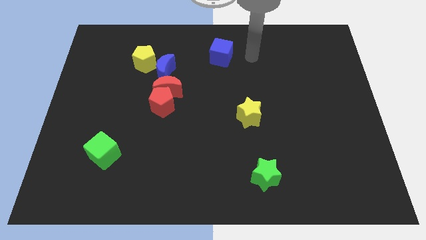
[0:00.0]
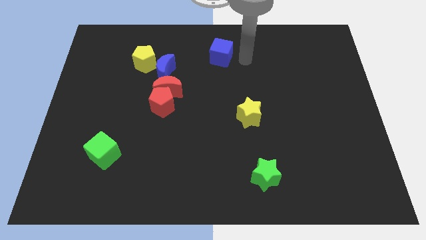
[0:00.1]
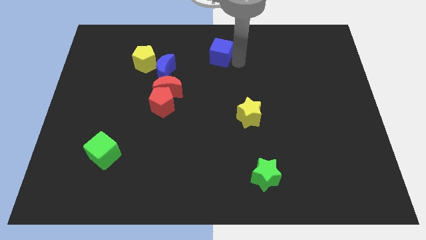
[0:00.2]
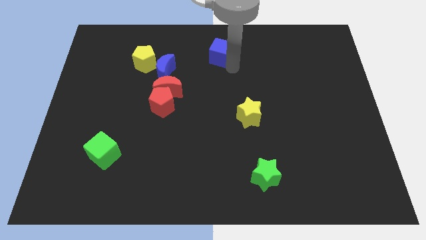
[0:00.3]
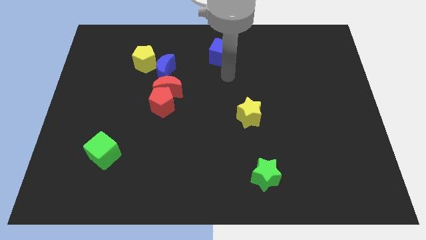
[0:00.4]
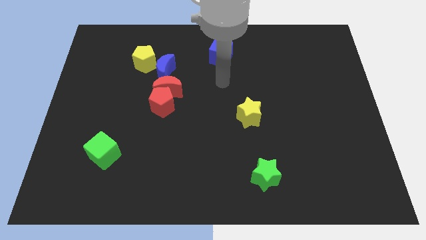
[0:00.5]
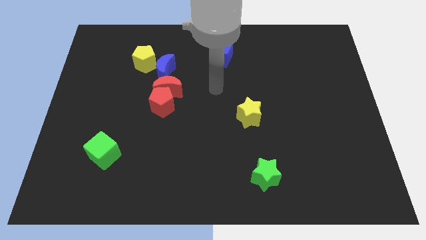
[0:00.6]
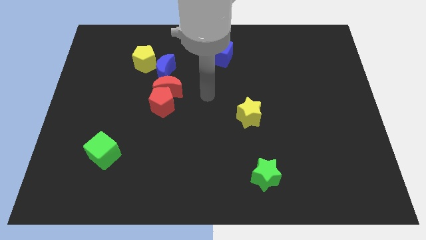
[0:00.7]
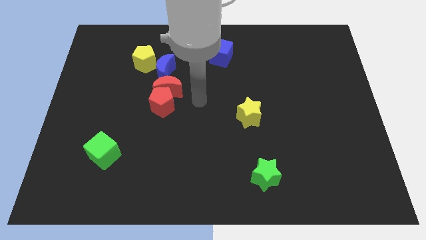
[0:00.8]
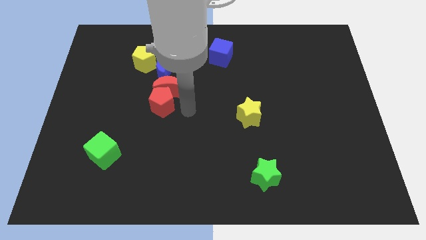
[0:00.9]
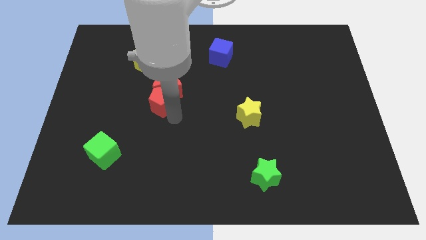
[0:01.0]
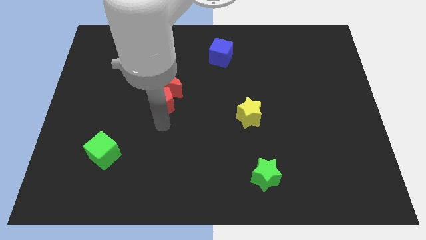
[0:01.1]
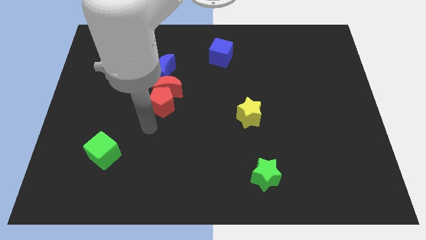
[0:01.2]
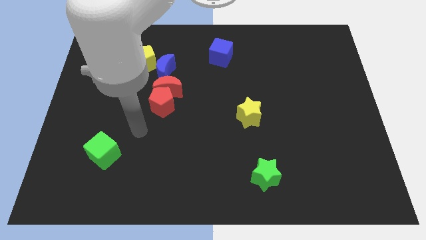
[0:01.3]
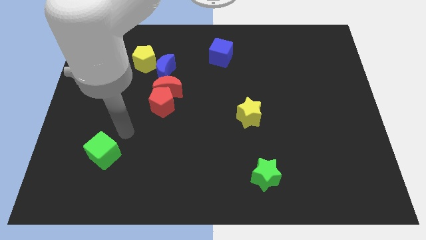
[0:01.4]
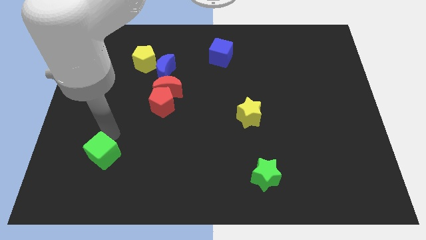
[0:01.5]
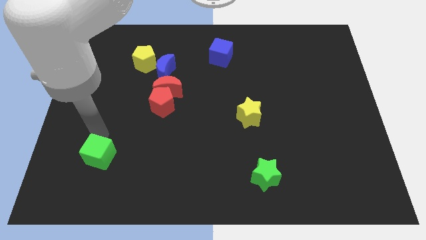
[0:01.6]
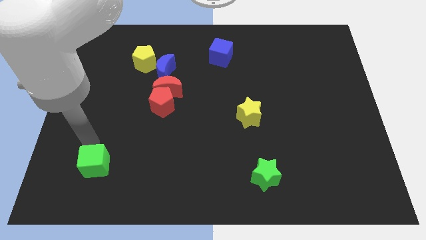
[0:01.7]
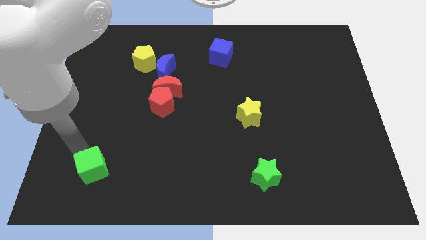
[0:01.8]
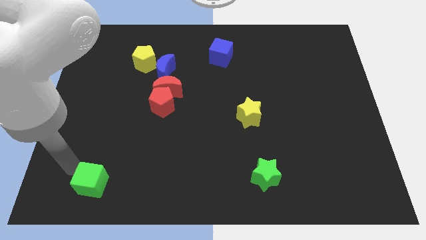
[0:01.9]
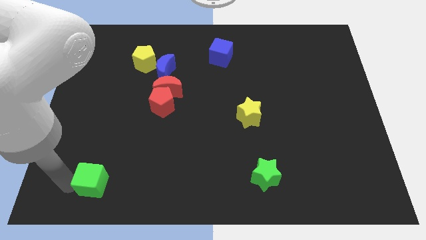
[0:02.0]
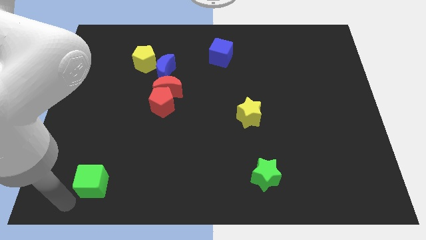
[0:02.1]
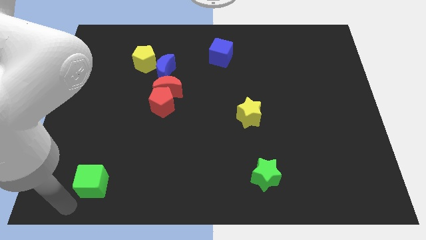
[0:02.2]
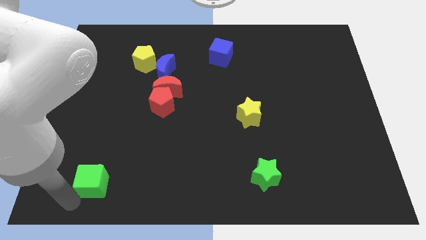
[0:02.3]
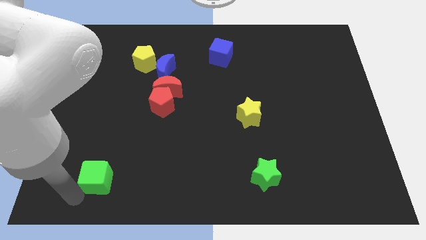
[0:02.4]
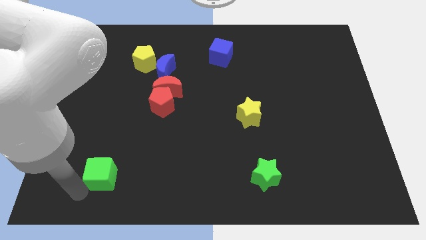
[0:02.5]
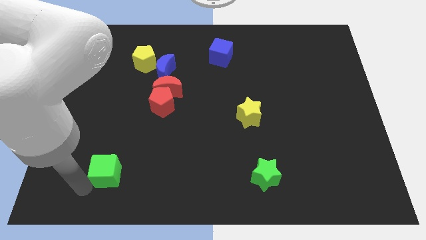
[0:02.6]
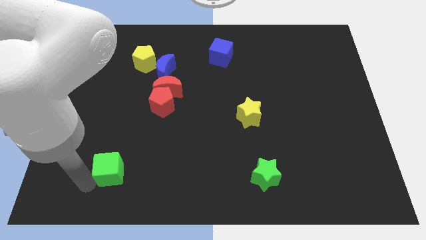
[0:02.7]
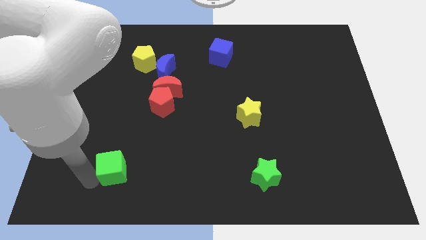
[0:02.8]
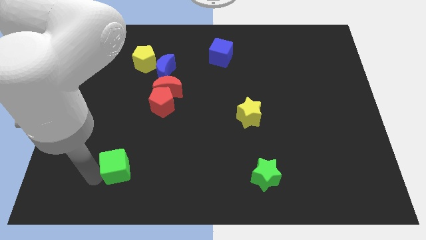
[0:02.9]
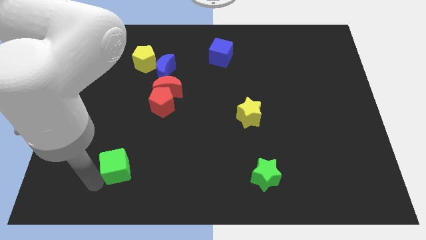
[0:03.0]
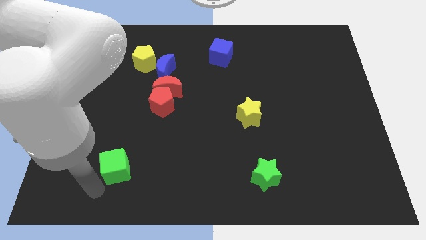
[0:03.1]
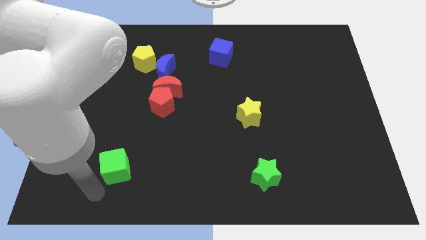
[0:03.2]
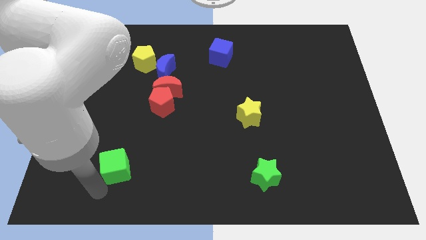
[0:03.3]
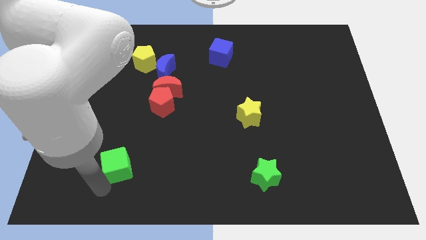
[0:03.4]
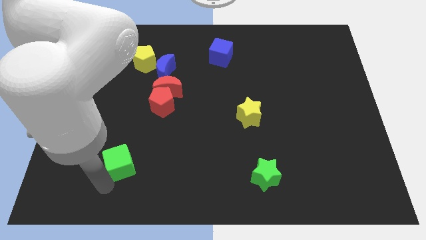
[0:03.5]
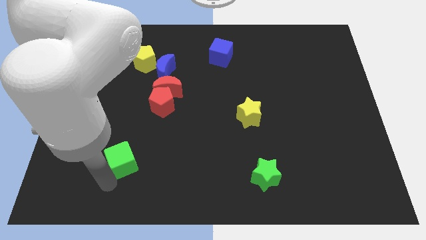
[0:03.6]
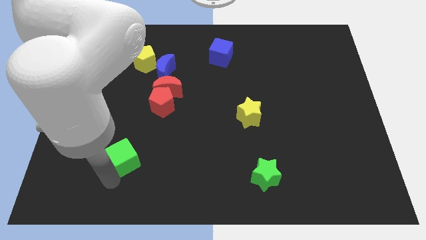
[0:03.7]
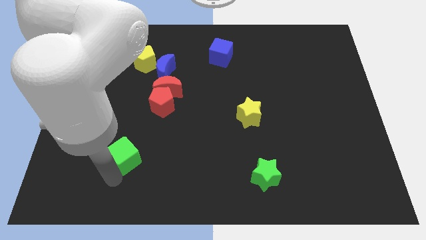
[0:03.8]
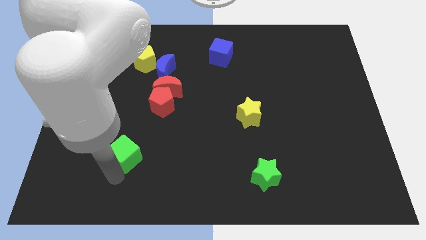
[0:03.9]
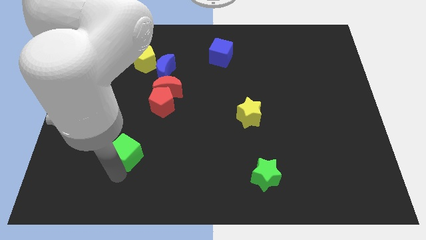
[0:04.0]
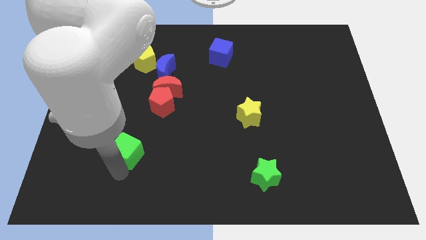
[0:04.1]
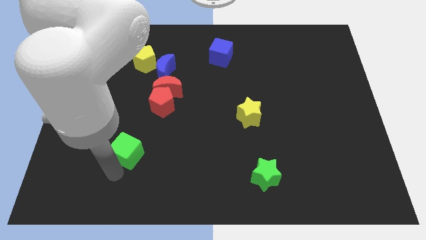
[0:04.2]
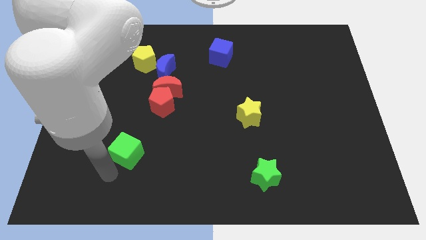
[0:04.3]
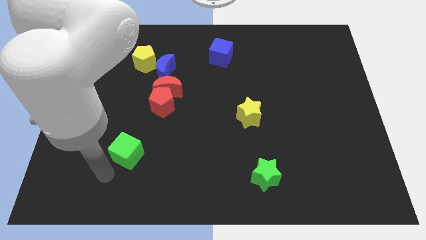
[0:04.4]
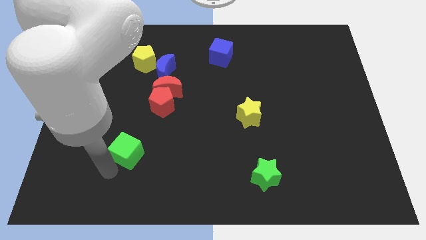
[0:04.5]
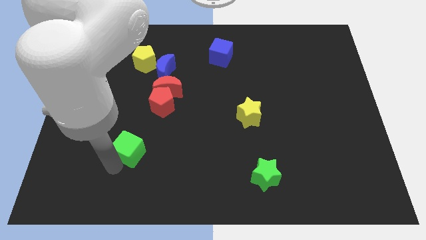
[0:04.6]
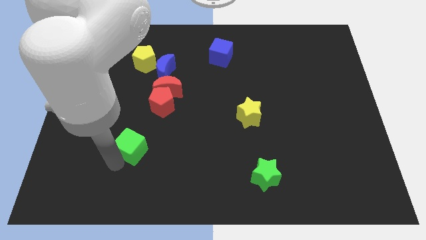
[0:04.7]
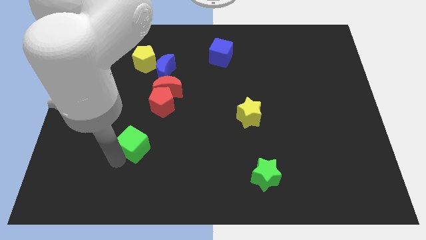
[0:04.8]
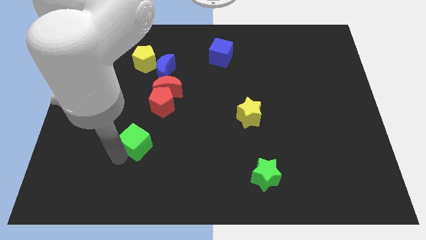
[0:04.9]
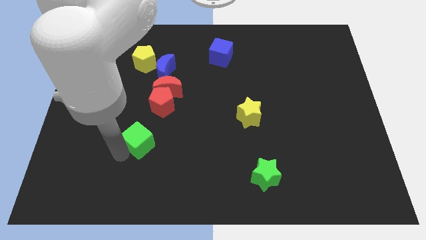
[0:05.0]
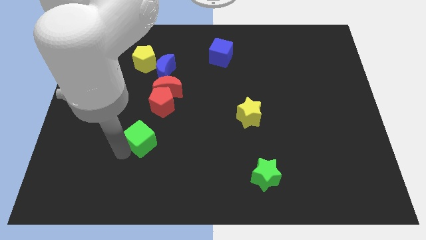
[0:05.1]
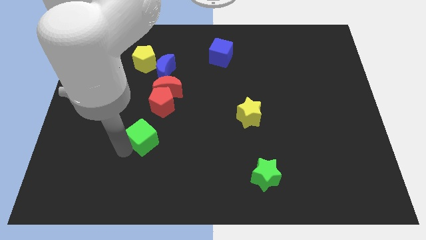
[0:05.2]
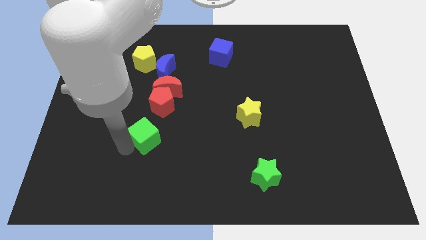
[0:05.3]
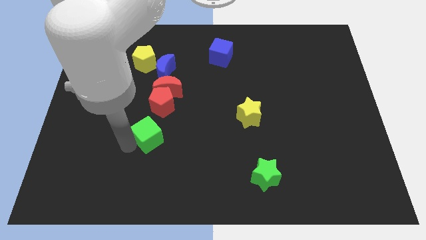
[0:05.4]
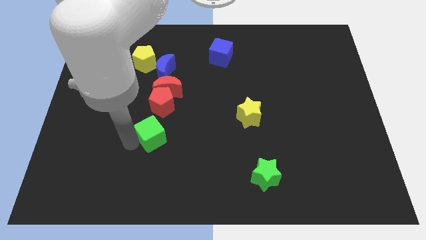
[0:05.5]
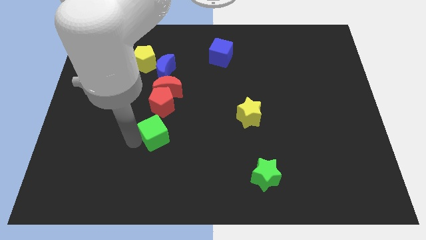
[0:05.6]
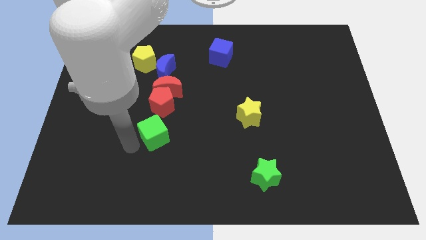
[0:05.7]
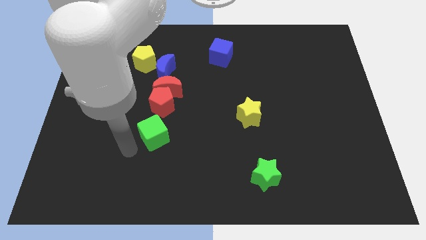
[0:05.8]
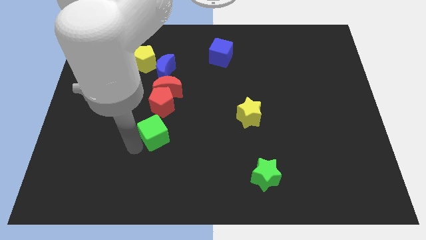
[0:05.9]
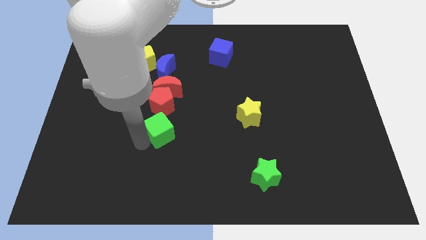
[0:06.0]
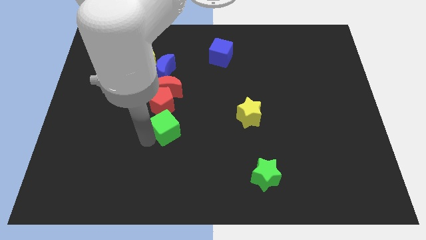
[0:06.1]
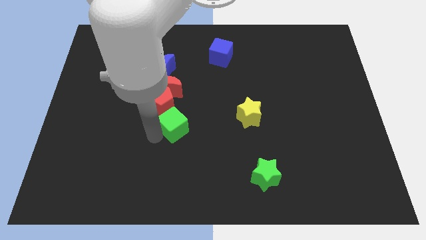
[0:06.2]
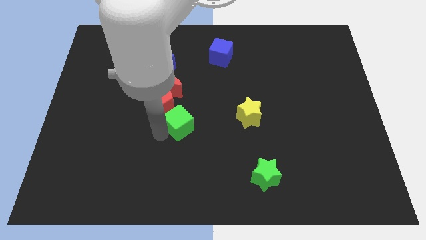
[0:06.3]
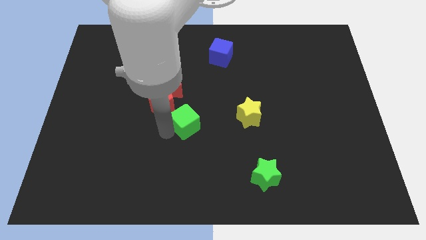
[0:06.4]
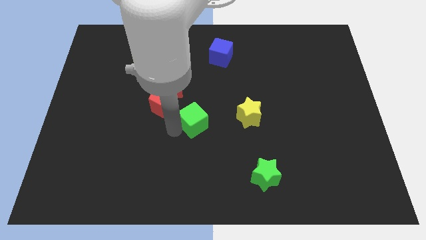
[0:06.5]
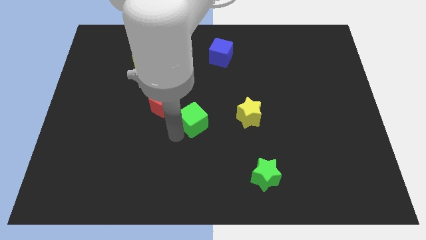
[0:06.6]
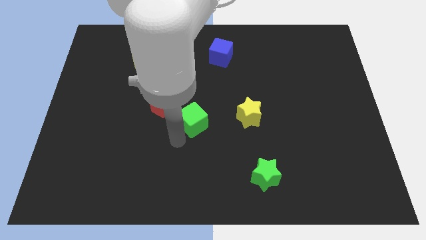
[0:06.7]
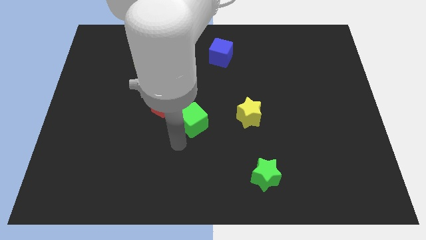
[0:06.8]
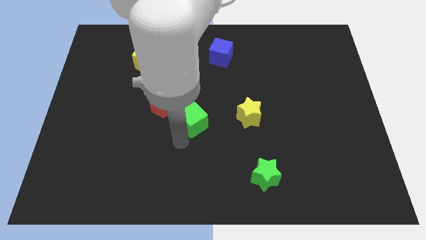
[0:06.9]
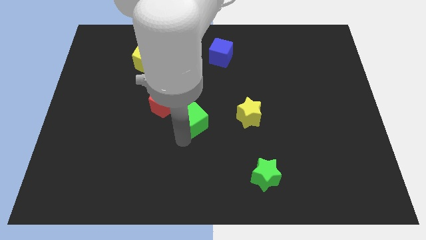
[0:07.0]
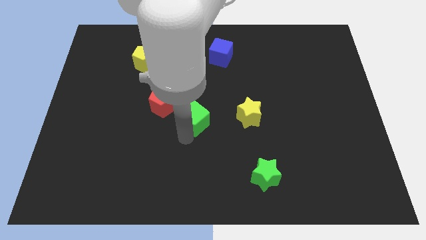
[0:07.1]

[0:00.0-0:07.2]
move the green cube right of the red pentagon
